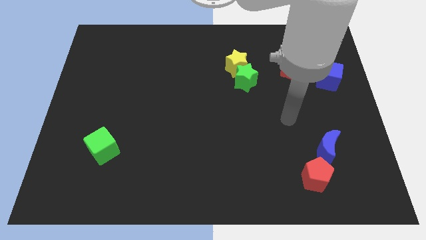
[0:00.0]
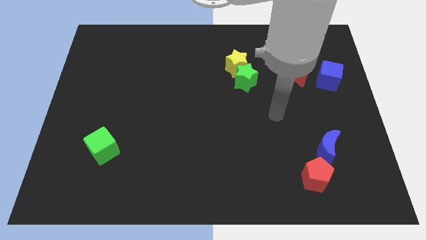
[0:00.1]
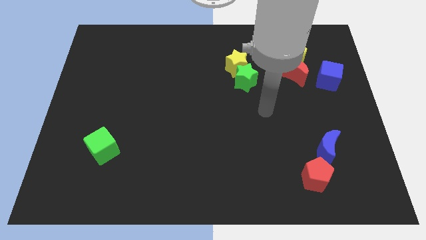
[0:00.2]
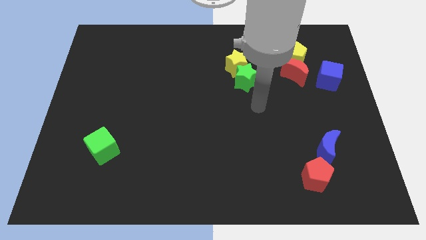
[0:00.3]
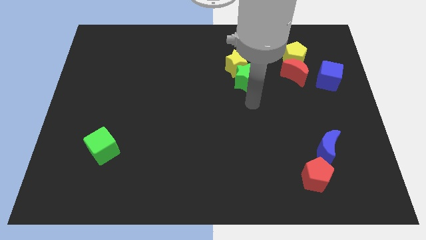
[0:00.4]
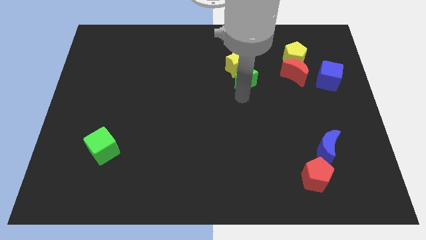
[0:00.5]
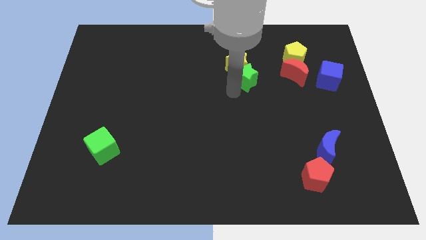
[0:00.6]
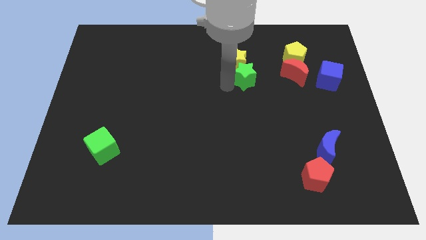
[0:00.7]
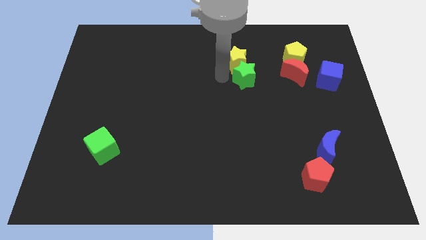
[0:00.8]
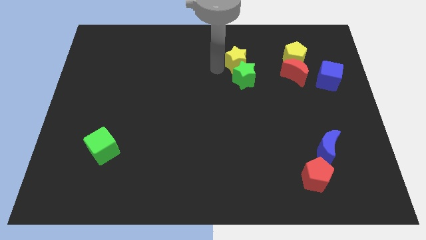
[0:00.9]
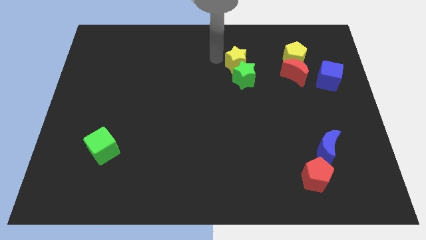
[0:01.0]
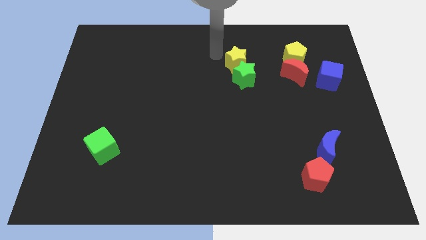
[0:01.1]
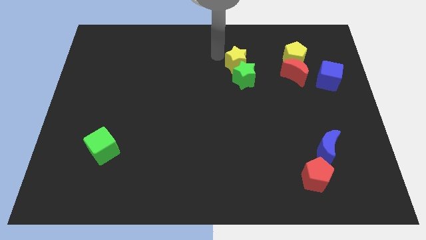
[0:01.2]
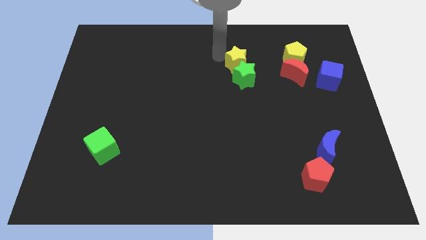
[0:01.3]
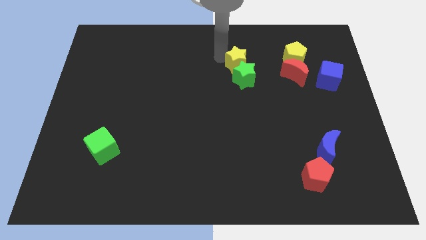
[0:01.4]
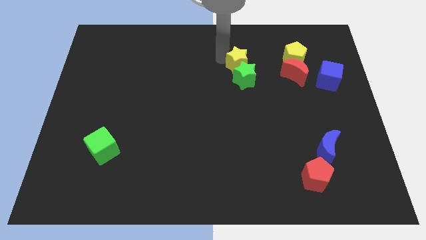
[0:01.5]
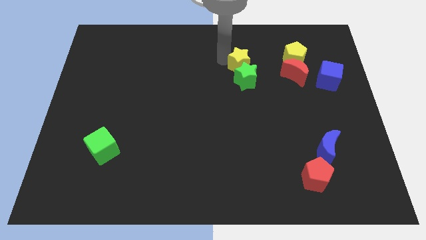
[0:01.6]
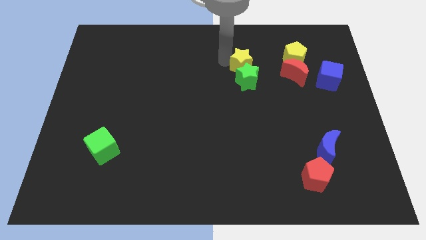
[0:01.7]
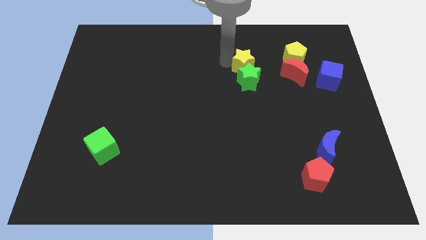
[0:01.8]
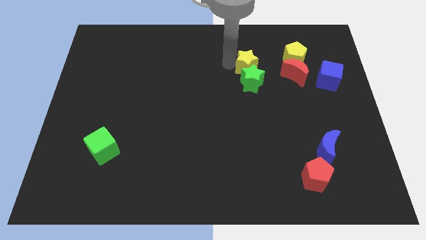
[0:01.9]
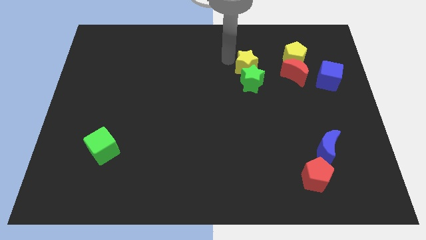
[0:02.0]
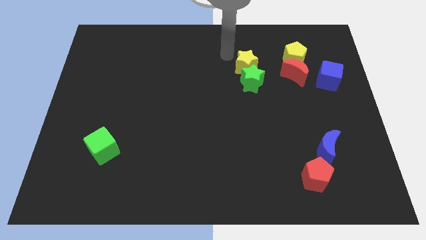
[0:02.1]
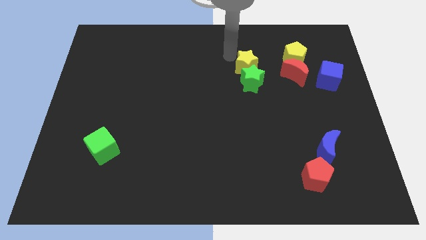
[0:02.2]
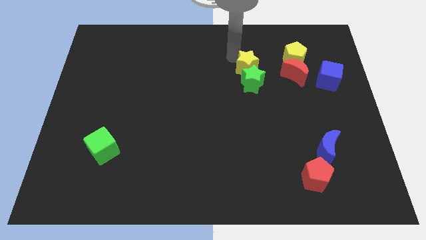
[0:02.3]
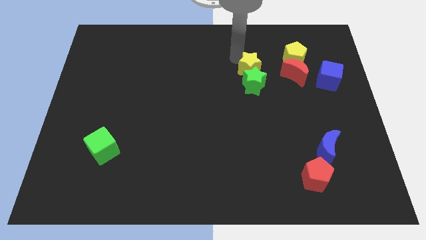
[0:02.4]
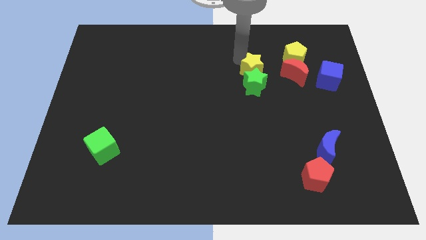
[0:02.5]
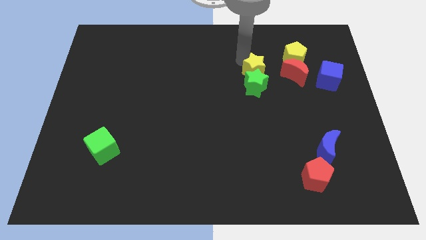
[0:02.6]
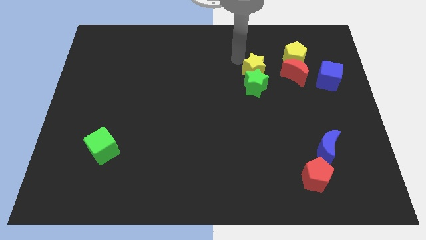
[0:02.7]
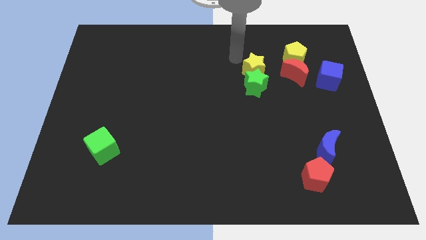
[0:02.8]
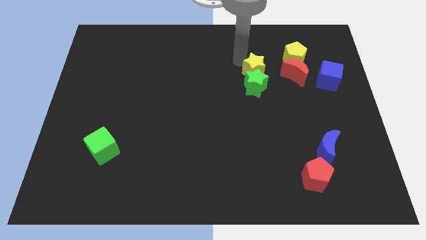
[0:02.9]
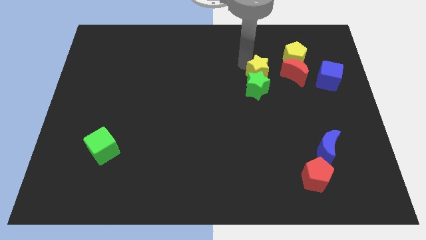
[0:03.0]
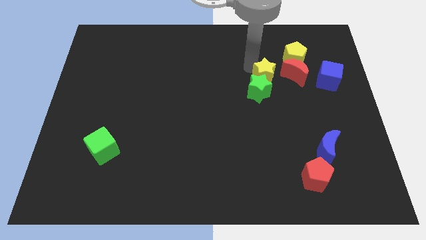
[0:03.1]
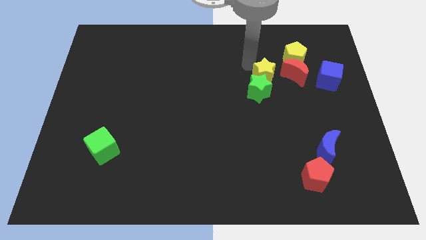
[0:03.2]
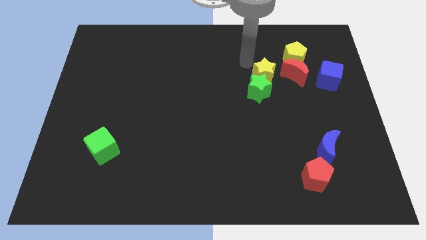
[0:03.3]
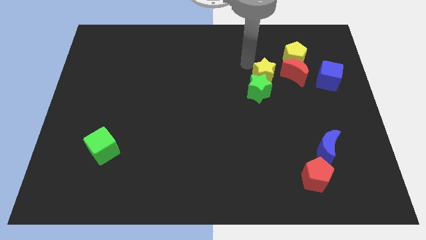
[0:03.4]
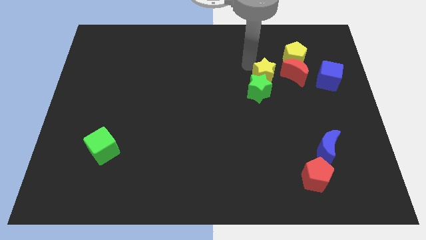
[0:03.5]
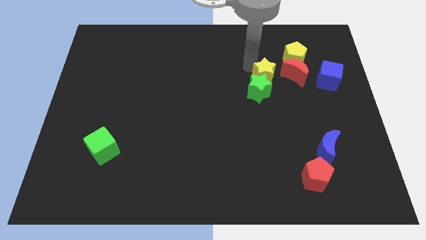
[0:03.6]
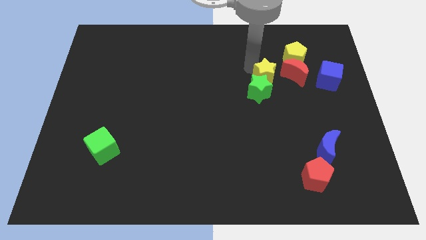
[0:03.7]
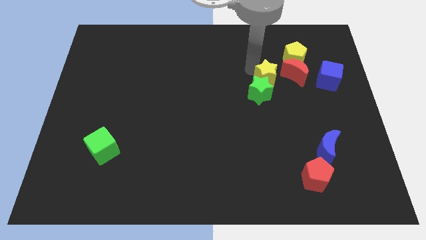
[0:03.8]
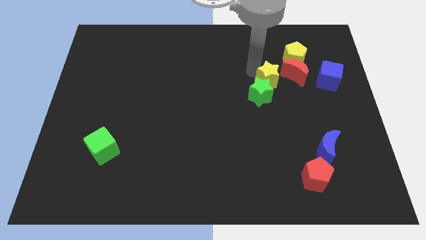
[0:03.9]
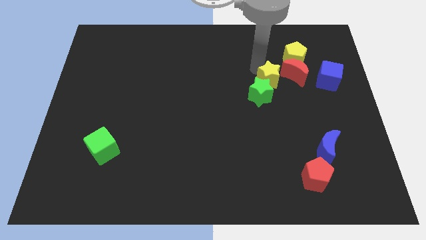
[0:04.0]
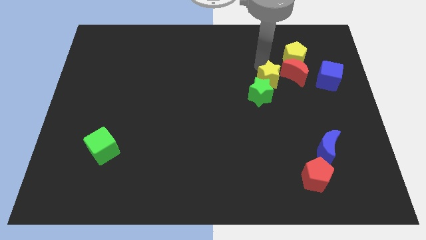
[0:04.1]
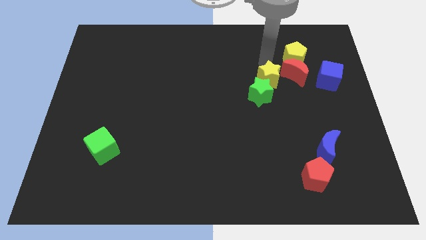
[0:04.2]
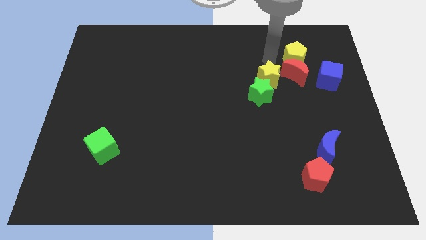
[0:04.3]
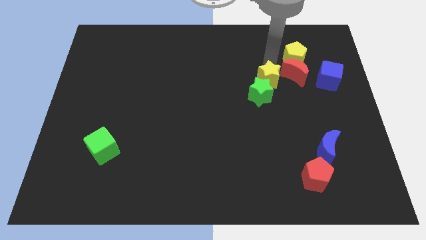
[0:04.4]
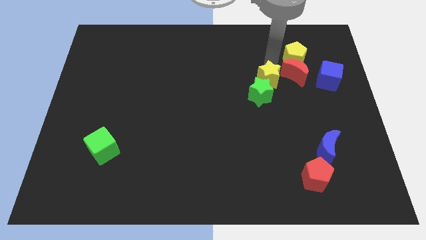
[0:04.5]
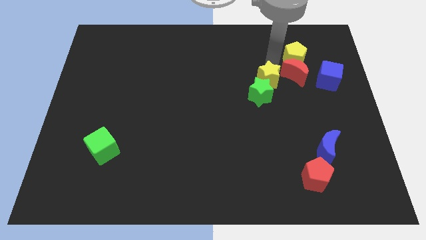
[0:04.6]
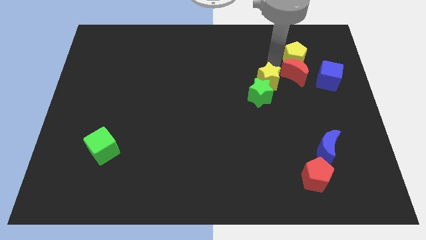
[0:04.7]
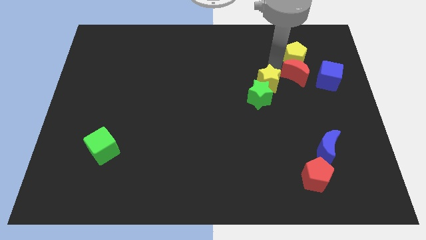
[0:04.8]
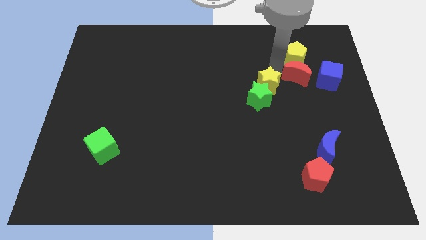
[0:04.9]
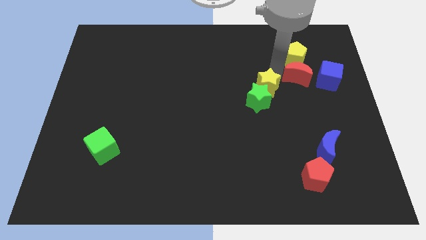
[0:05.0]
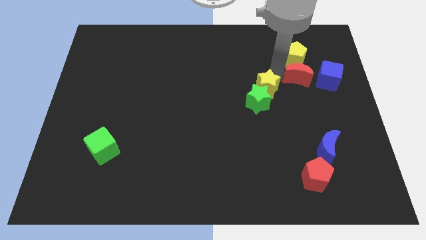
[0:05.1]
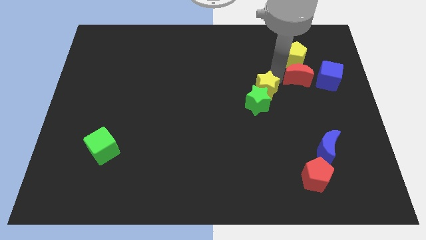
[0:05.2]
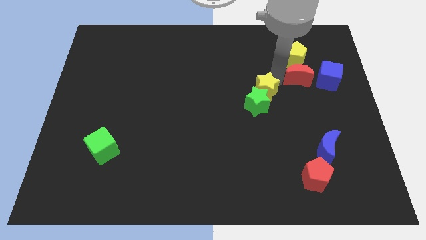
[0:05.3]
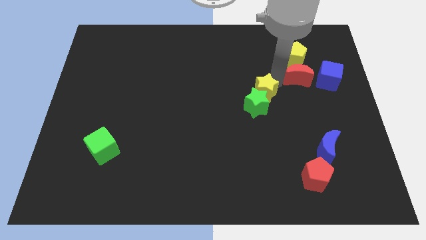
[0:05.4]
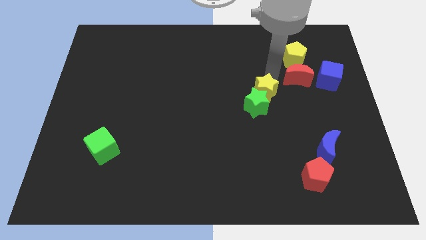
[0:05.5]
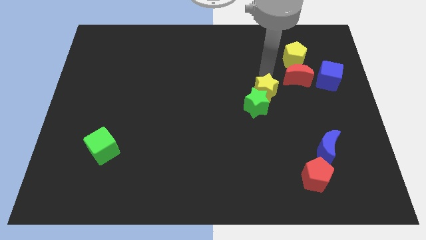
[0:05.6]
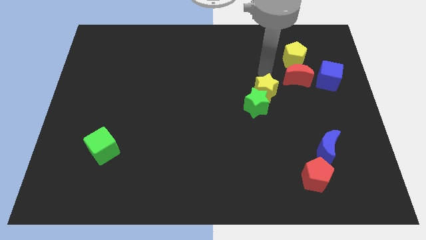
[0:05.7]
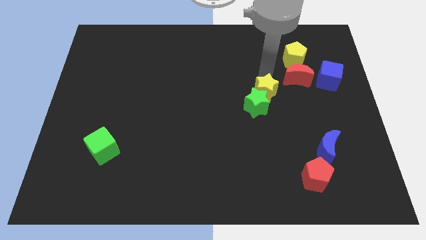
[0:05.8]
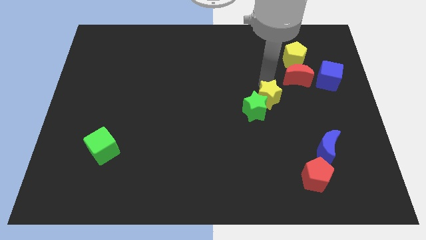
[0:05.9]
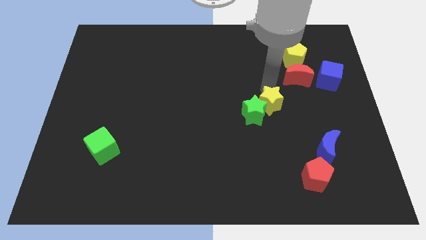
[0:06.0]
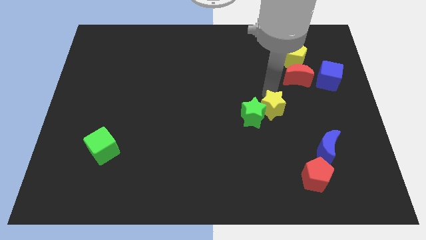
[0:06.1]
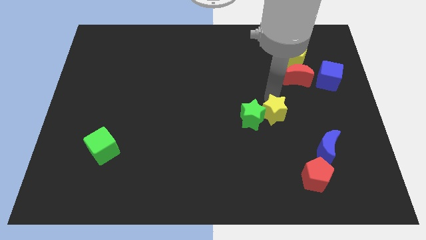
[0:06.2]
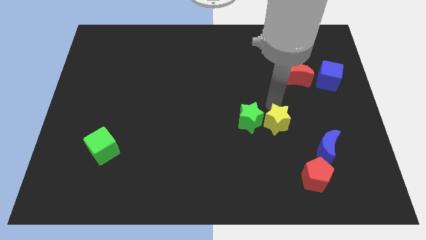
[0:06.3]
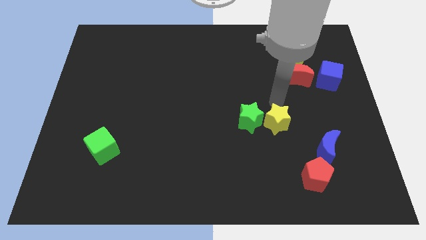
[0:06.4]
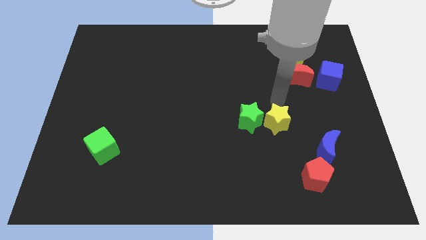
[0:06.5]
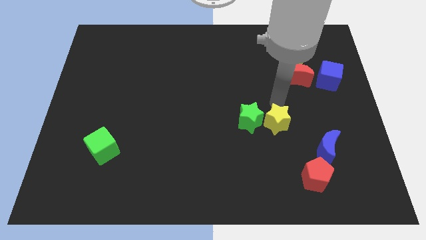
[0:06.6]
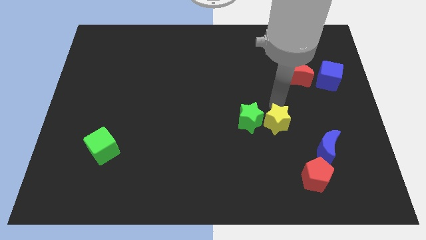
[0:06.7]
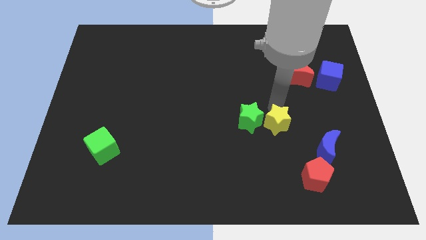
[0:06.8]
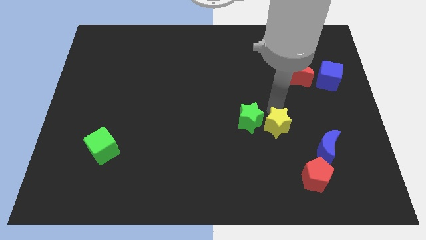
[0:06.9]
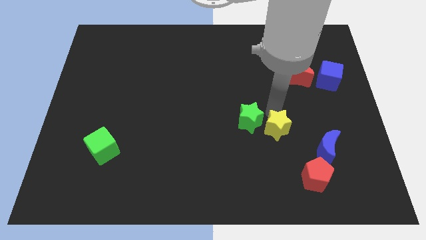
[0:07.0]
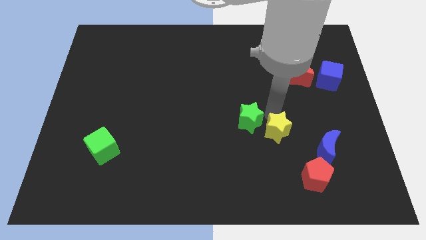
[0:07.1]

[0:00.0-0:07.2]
put the yellow star to the left side of the blue moon
